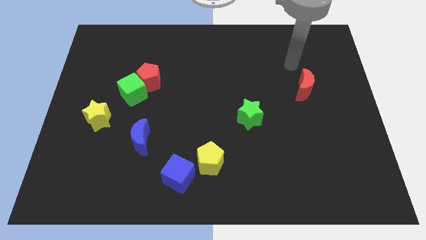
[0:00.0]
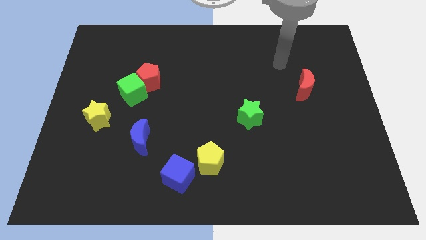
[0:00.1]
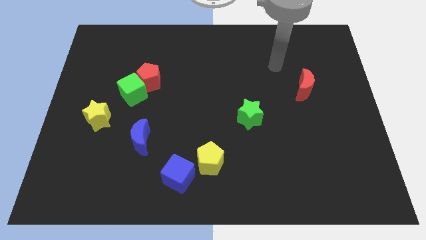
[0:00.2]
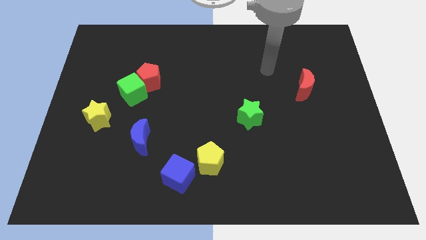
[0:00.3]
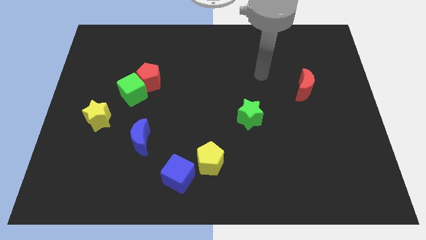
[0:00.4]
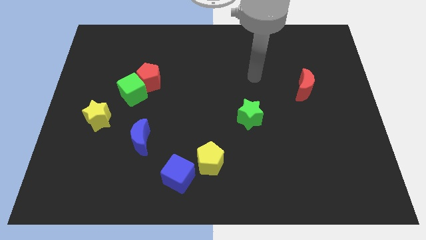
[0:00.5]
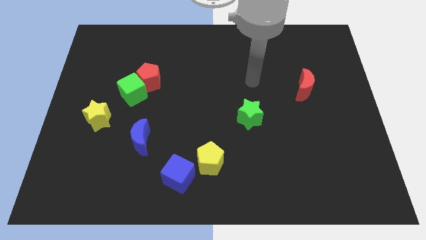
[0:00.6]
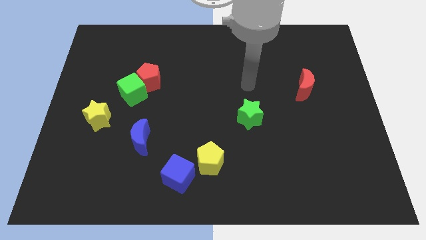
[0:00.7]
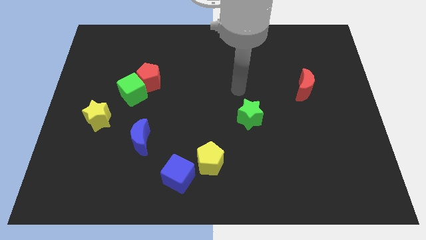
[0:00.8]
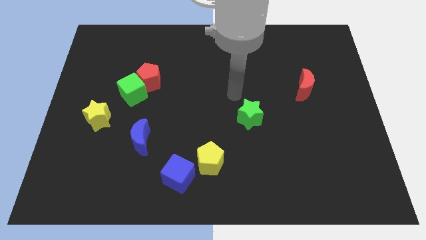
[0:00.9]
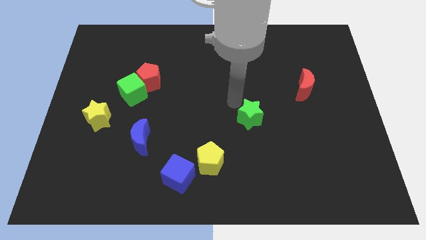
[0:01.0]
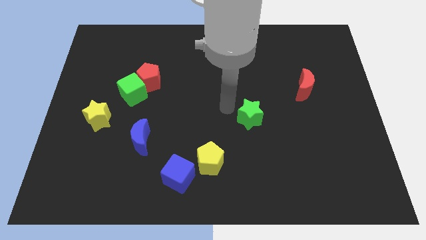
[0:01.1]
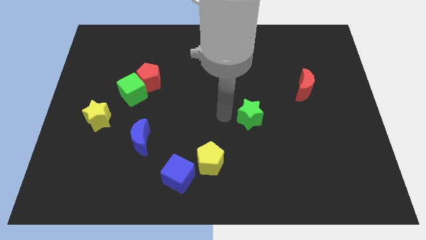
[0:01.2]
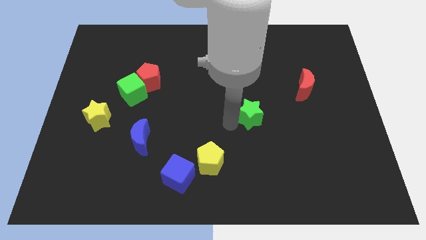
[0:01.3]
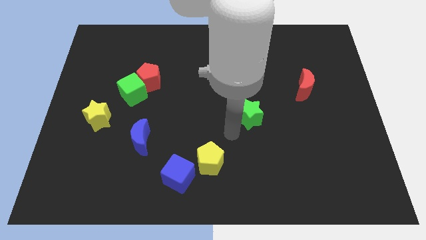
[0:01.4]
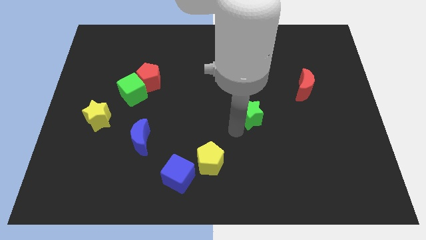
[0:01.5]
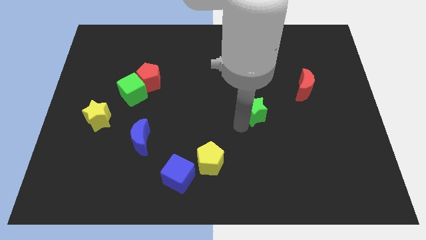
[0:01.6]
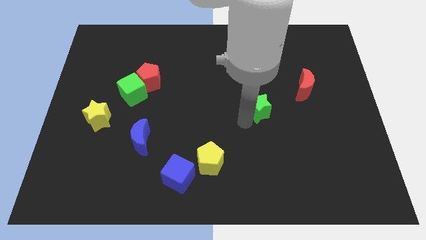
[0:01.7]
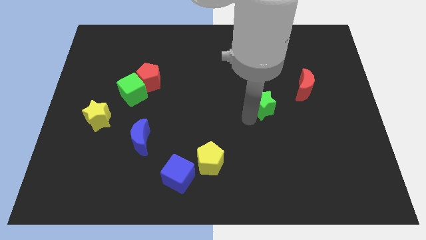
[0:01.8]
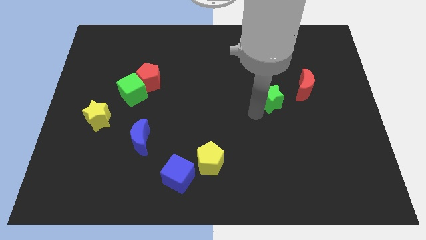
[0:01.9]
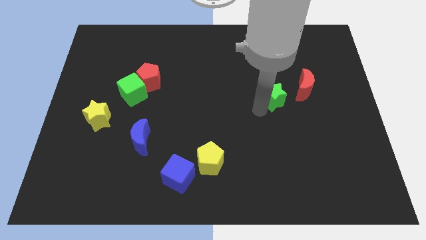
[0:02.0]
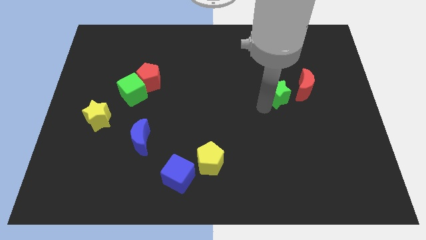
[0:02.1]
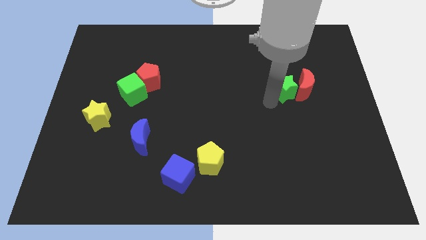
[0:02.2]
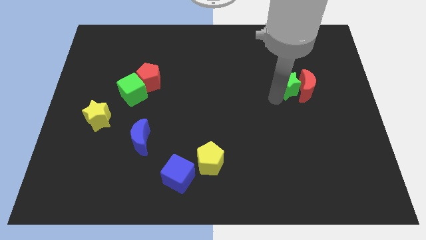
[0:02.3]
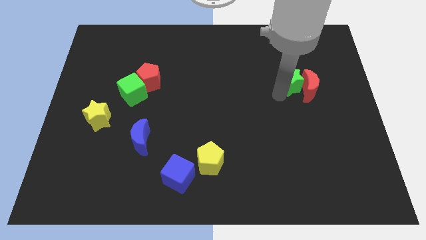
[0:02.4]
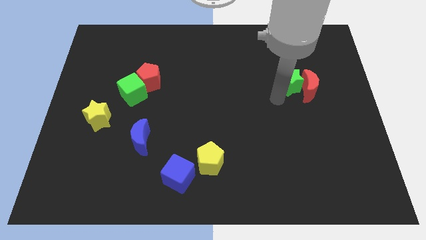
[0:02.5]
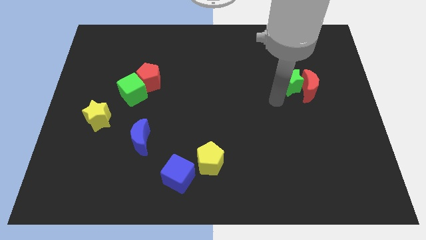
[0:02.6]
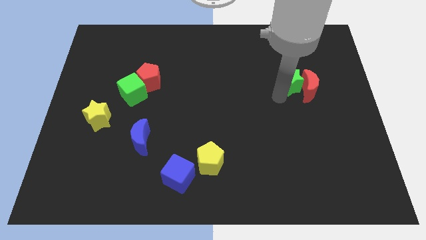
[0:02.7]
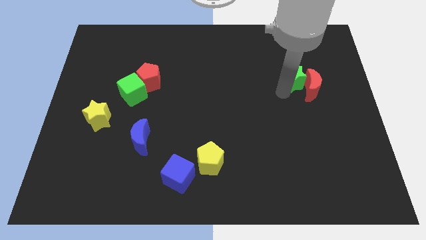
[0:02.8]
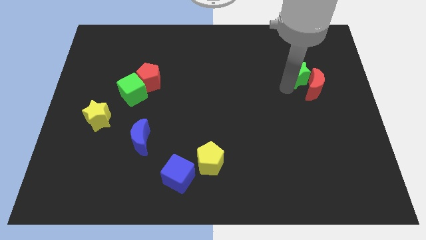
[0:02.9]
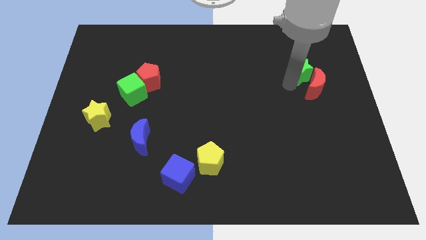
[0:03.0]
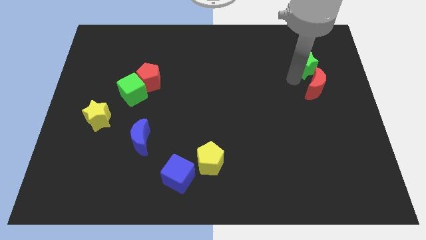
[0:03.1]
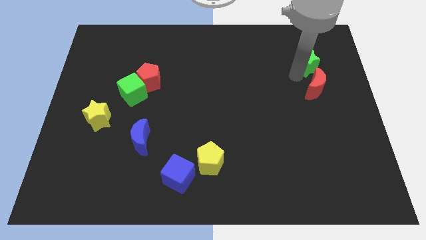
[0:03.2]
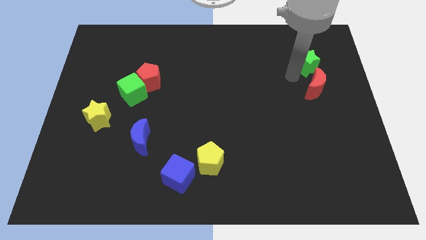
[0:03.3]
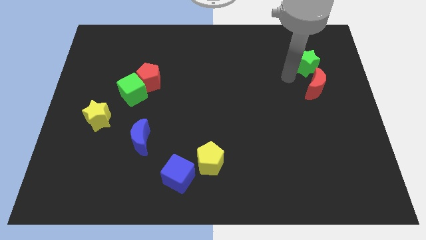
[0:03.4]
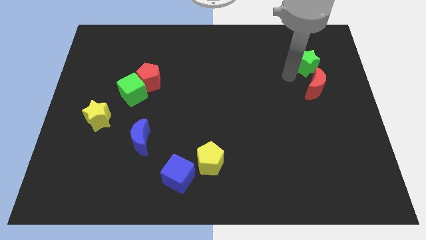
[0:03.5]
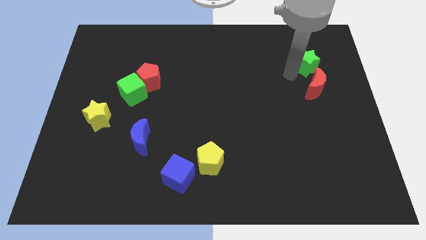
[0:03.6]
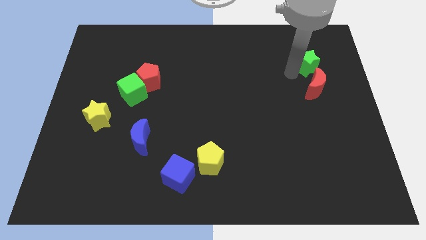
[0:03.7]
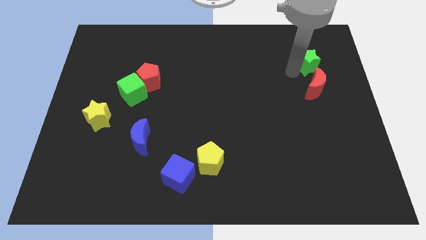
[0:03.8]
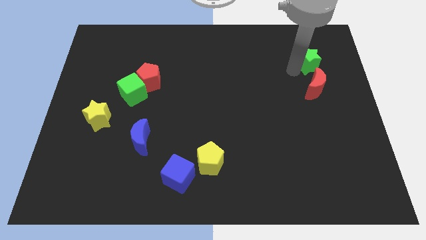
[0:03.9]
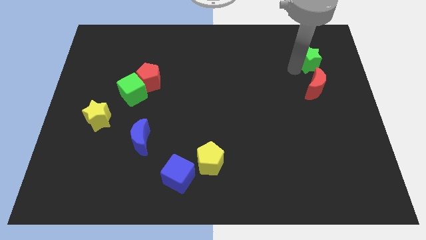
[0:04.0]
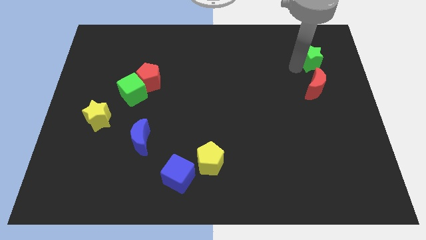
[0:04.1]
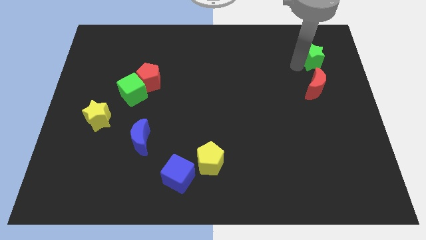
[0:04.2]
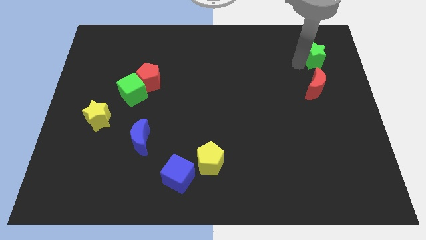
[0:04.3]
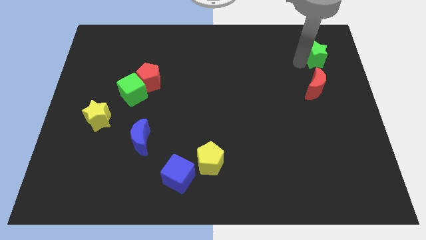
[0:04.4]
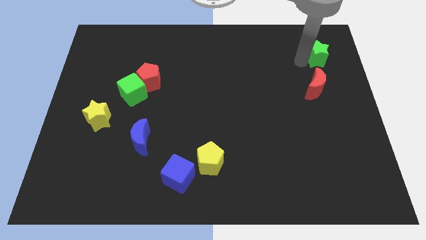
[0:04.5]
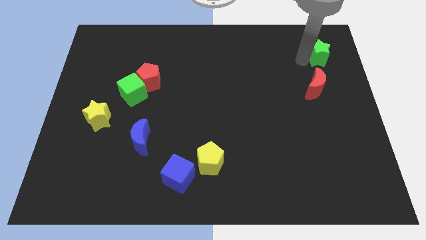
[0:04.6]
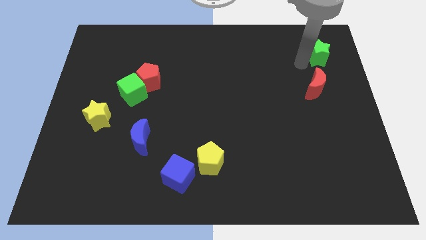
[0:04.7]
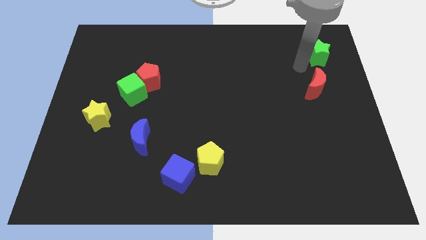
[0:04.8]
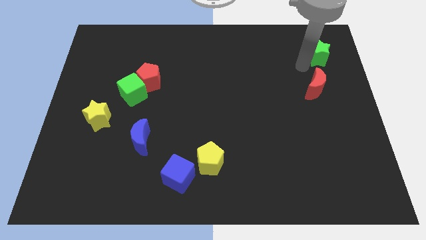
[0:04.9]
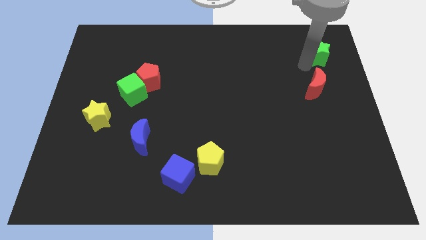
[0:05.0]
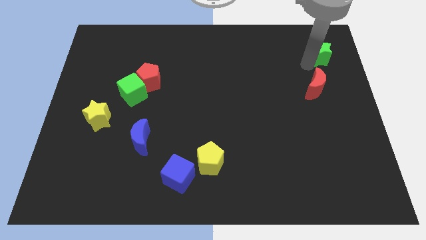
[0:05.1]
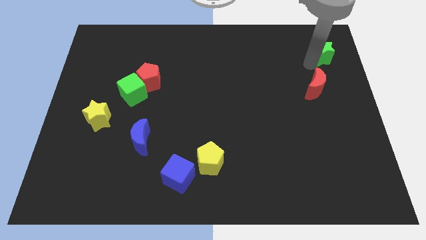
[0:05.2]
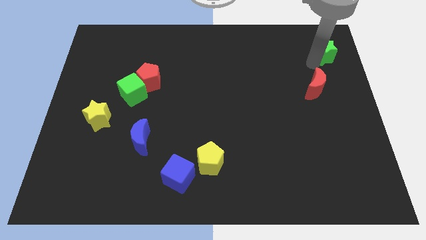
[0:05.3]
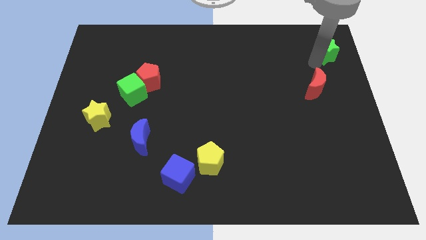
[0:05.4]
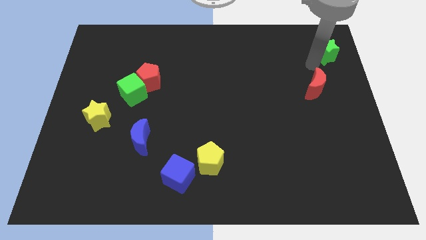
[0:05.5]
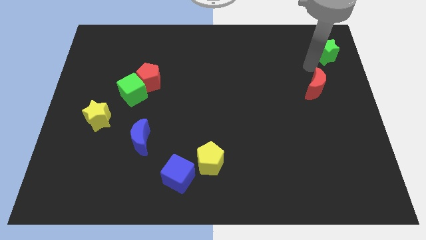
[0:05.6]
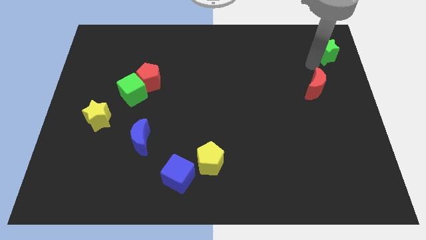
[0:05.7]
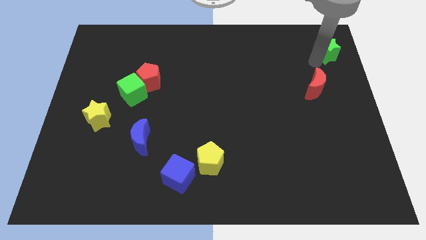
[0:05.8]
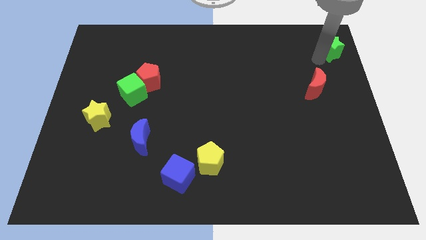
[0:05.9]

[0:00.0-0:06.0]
slide the green star to the top right of the board
